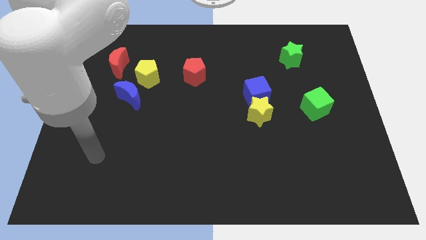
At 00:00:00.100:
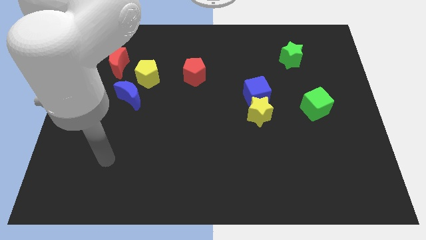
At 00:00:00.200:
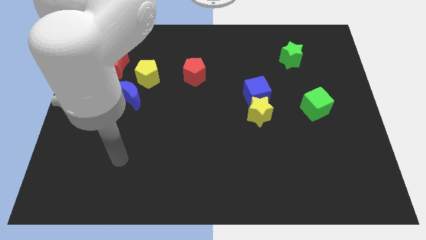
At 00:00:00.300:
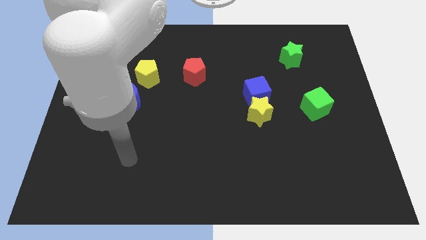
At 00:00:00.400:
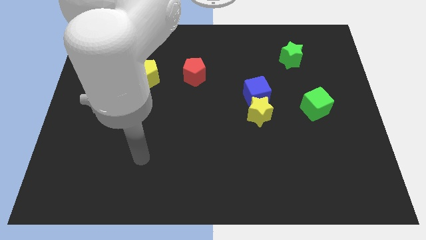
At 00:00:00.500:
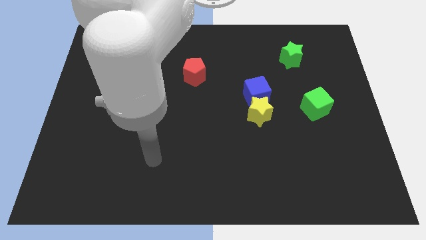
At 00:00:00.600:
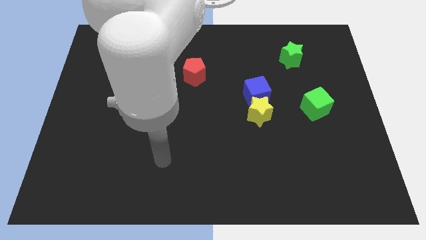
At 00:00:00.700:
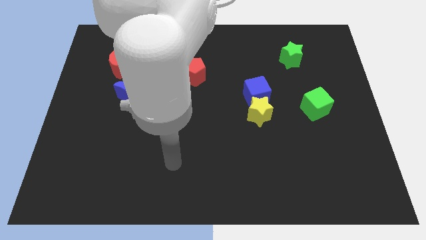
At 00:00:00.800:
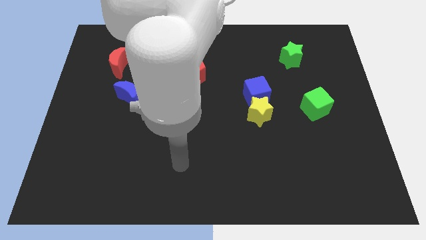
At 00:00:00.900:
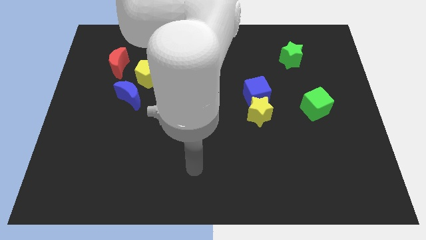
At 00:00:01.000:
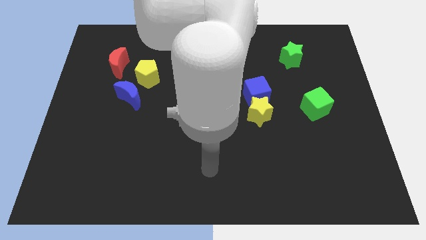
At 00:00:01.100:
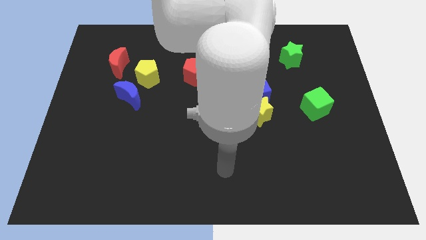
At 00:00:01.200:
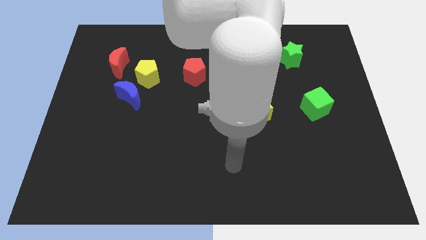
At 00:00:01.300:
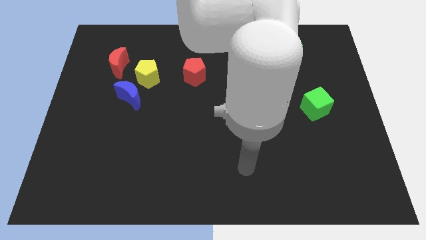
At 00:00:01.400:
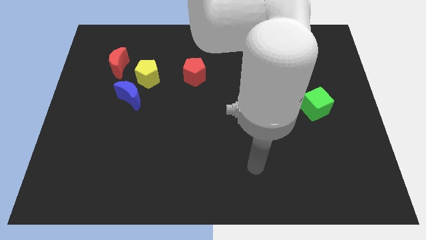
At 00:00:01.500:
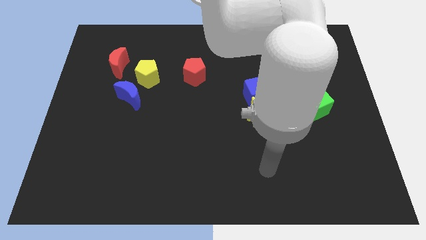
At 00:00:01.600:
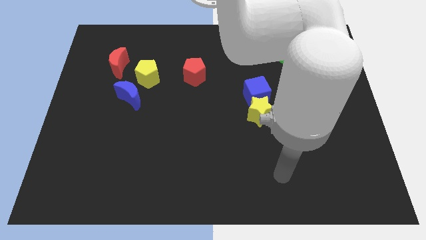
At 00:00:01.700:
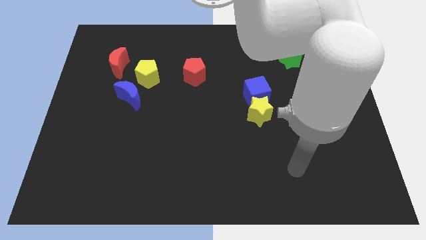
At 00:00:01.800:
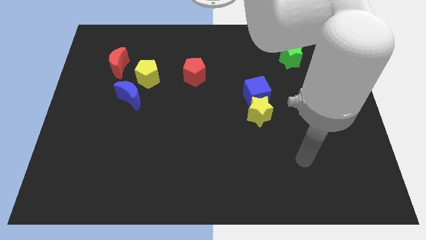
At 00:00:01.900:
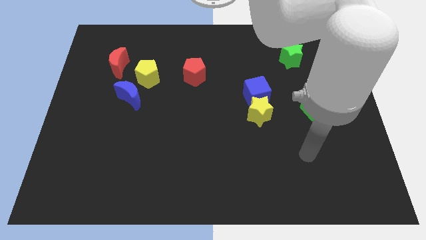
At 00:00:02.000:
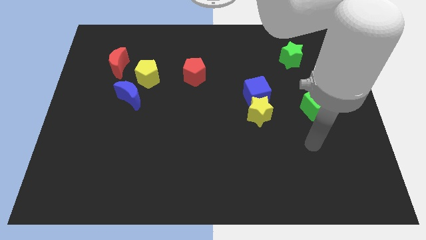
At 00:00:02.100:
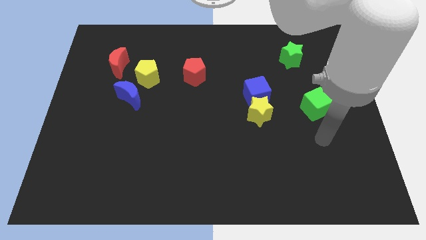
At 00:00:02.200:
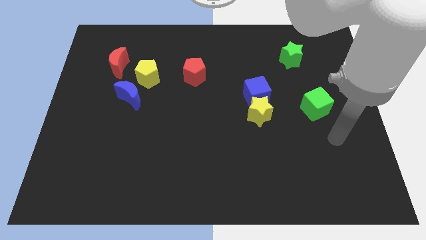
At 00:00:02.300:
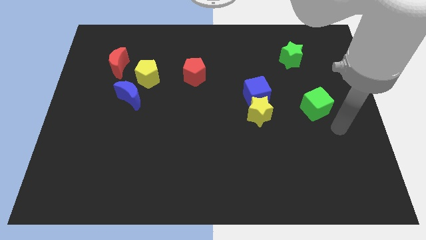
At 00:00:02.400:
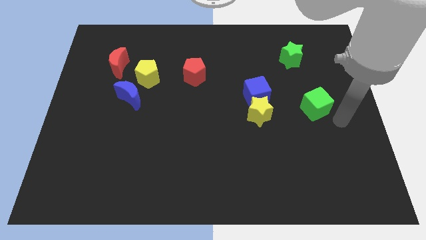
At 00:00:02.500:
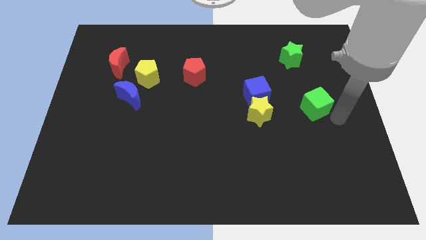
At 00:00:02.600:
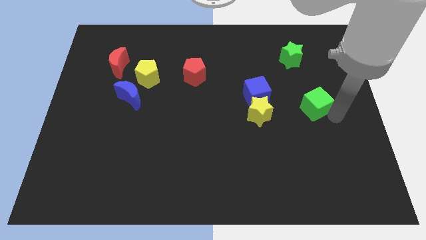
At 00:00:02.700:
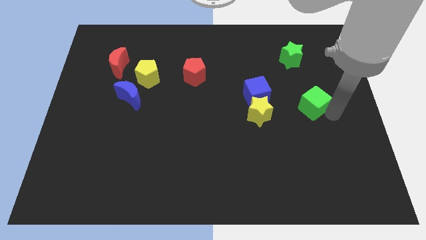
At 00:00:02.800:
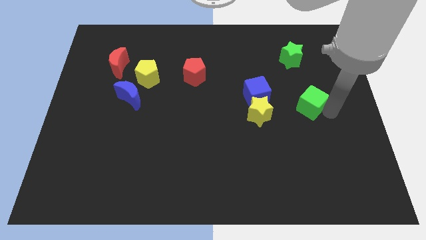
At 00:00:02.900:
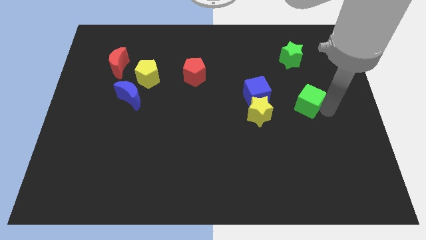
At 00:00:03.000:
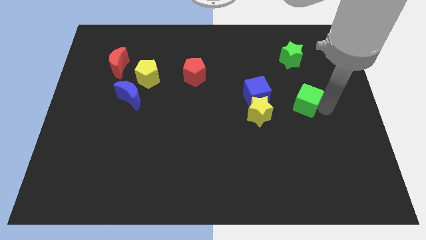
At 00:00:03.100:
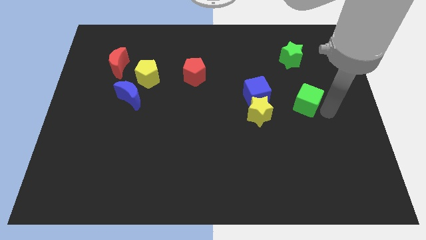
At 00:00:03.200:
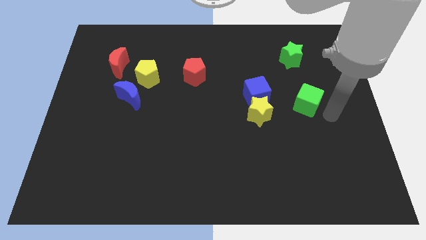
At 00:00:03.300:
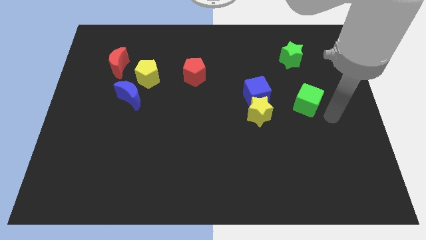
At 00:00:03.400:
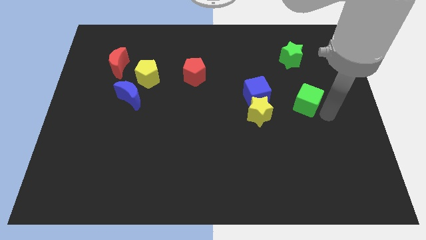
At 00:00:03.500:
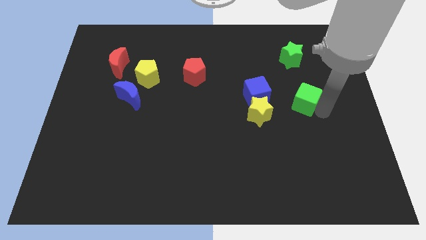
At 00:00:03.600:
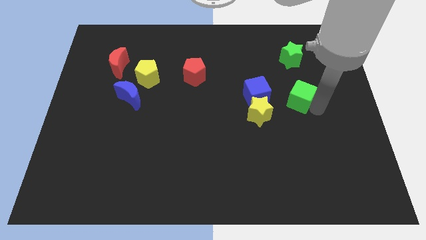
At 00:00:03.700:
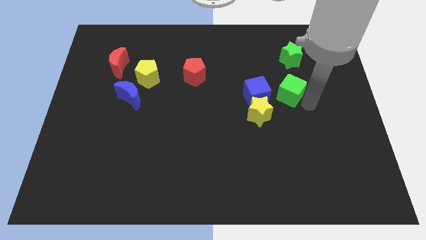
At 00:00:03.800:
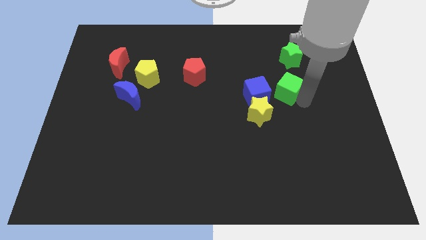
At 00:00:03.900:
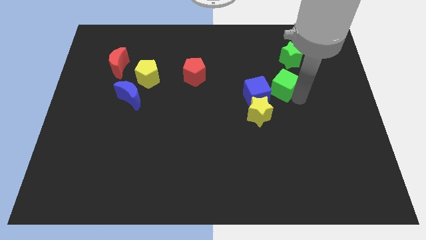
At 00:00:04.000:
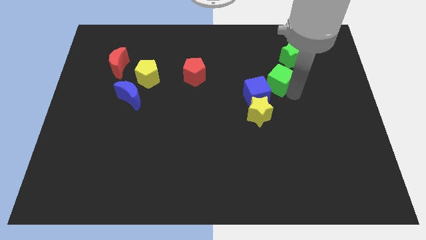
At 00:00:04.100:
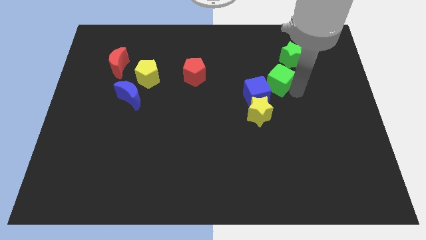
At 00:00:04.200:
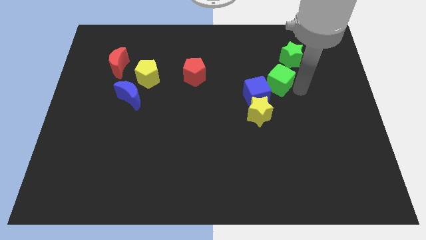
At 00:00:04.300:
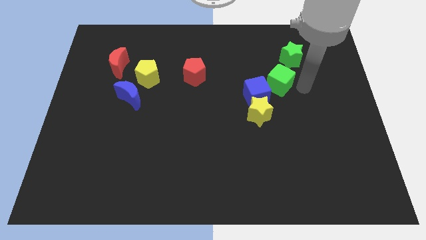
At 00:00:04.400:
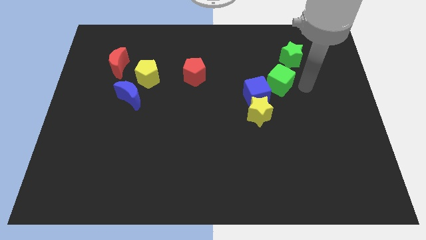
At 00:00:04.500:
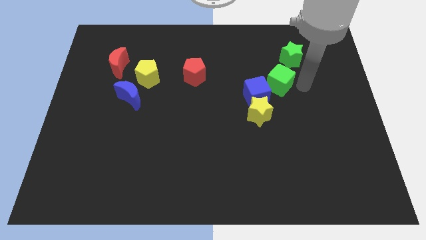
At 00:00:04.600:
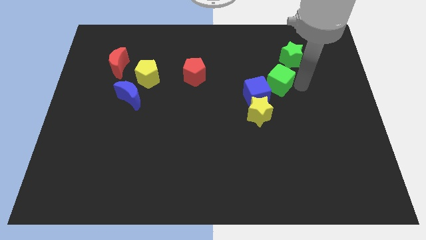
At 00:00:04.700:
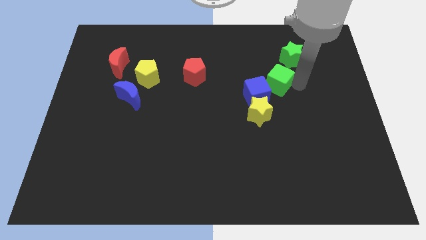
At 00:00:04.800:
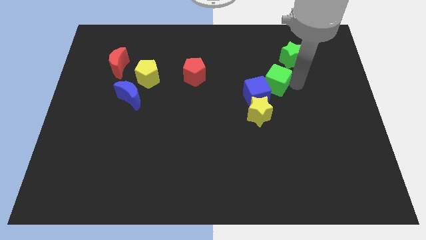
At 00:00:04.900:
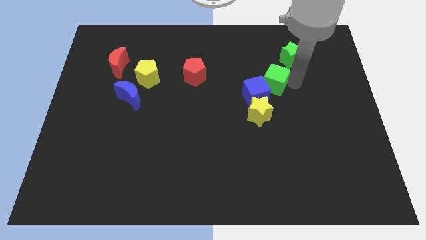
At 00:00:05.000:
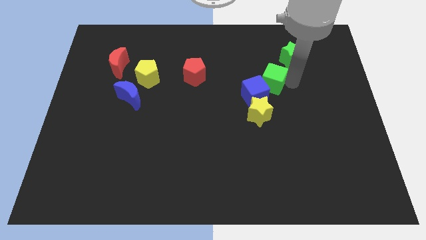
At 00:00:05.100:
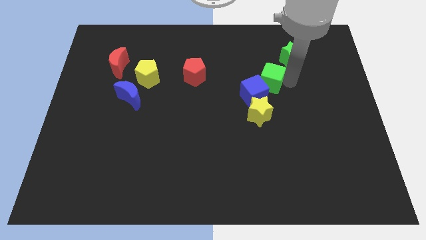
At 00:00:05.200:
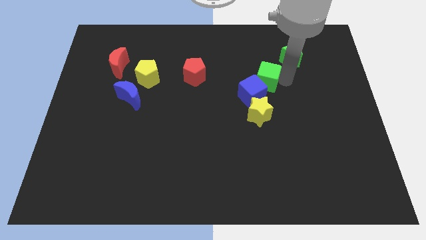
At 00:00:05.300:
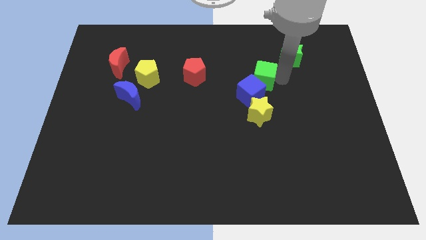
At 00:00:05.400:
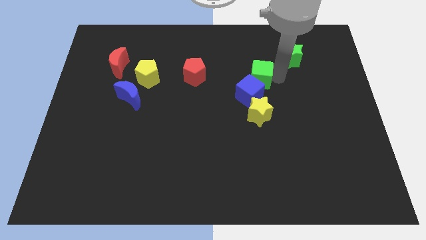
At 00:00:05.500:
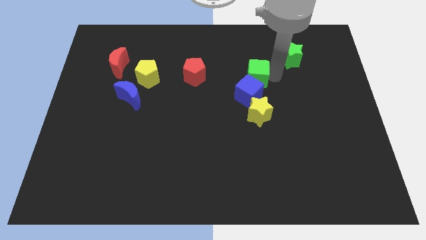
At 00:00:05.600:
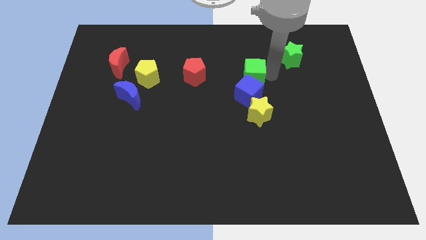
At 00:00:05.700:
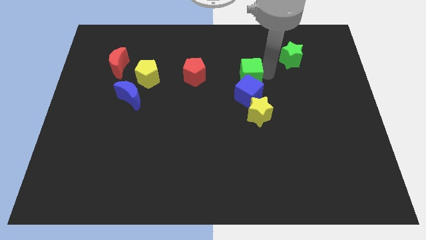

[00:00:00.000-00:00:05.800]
put the green cube to the middle of the board
